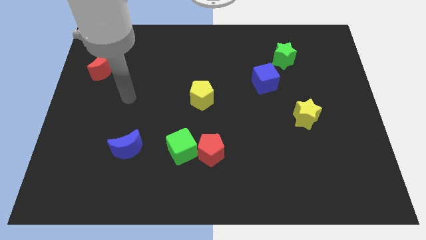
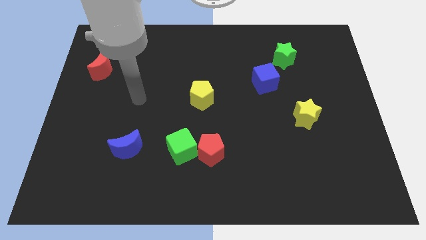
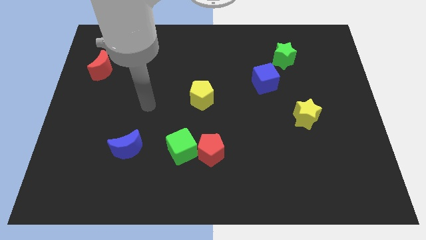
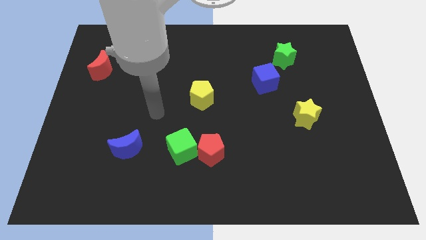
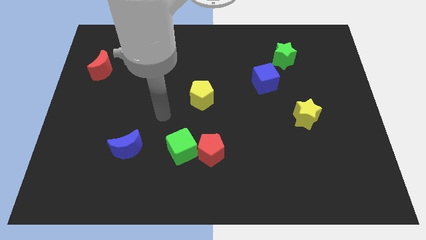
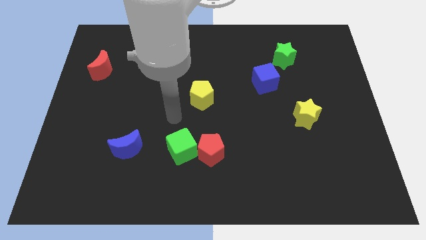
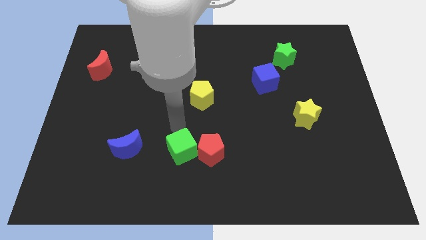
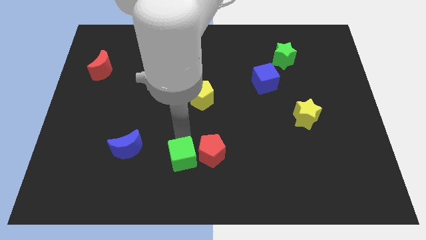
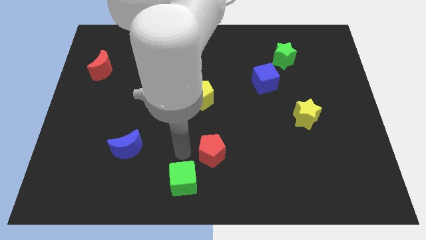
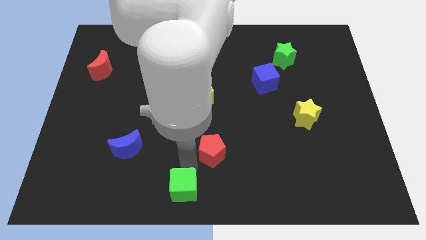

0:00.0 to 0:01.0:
move the red pentagon away from the green cube

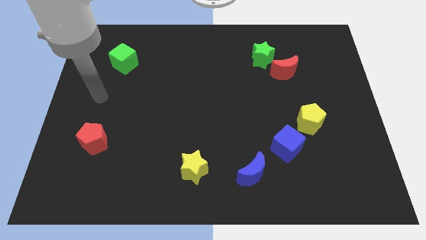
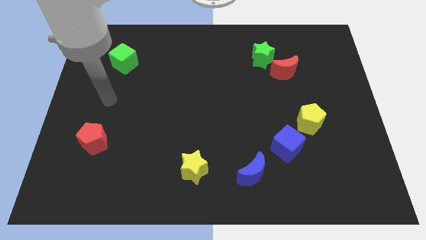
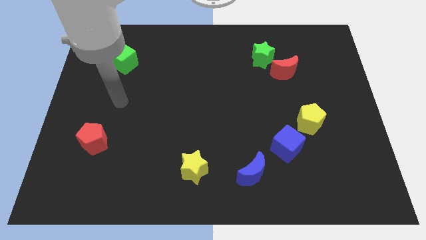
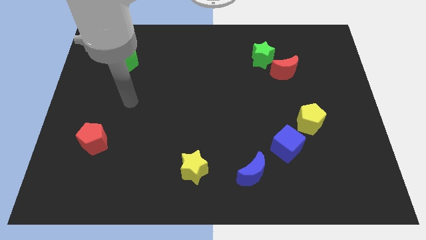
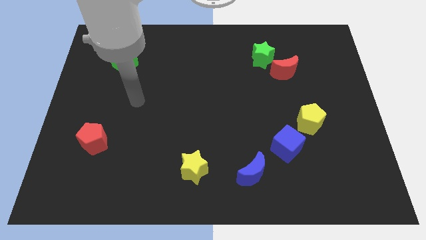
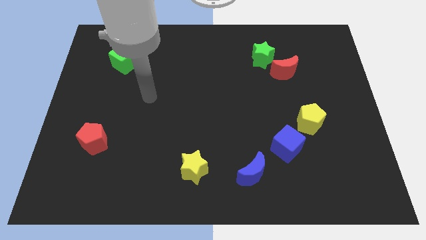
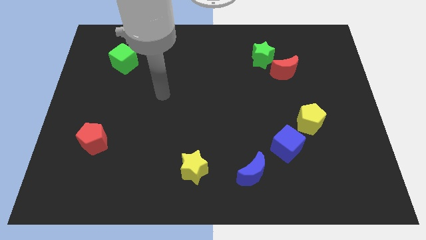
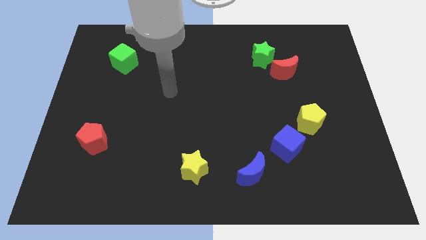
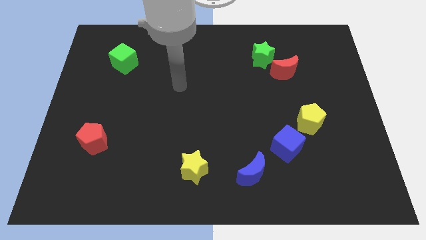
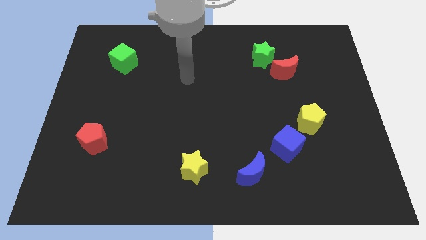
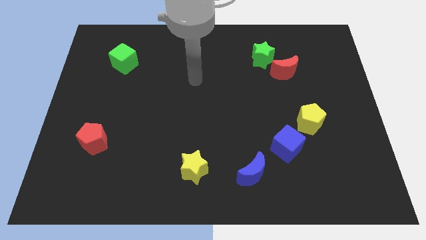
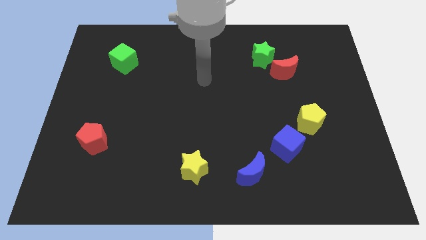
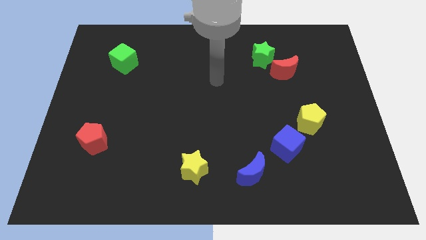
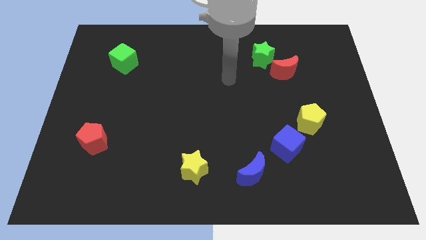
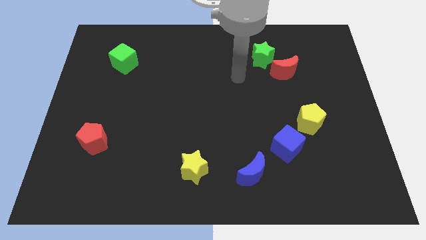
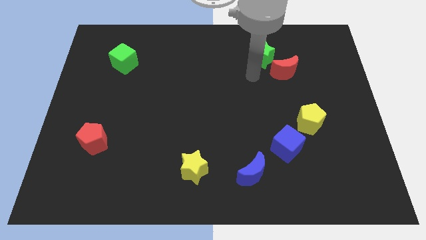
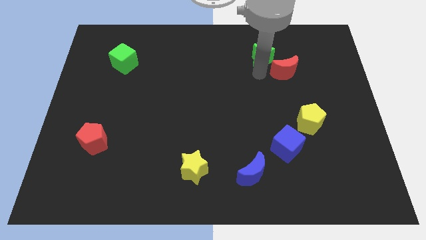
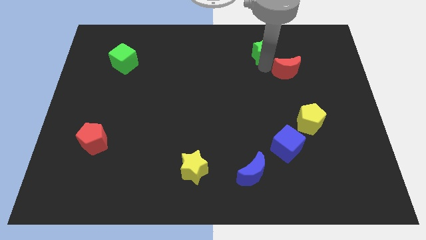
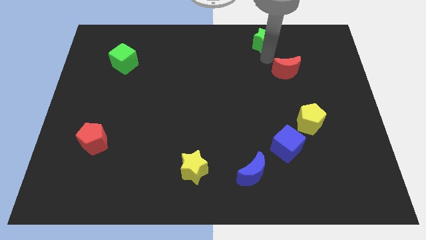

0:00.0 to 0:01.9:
move the red moon away from the green star

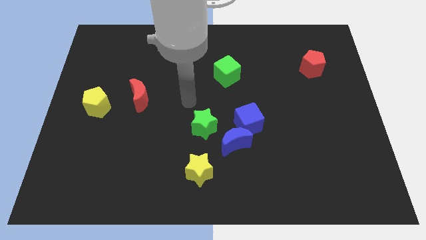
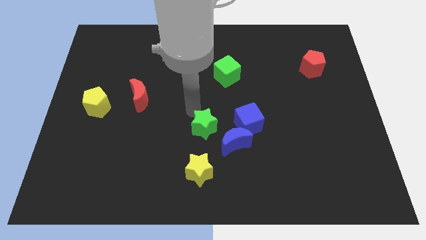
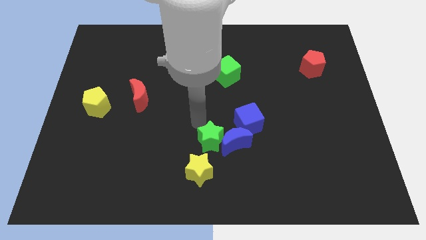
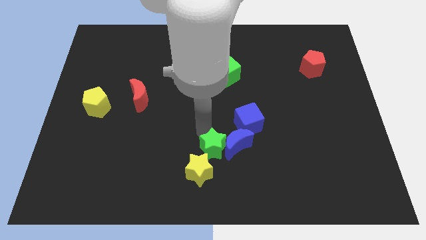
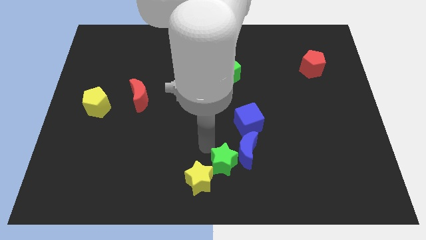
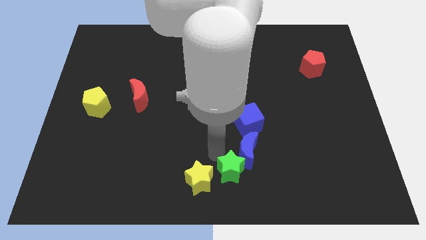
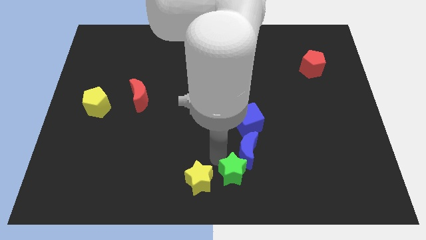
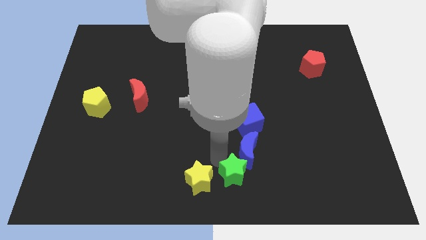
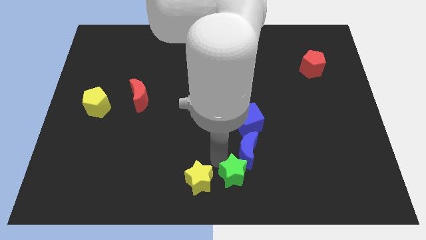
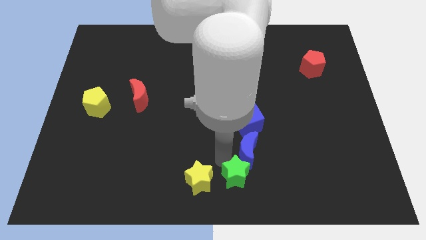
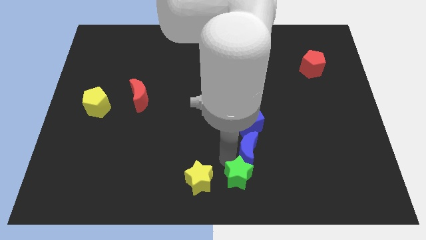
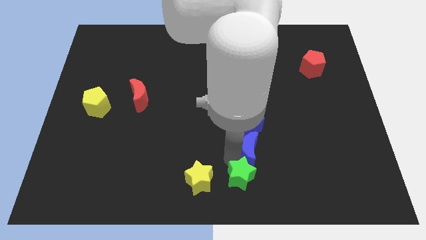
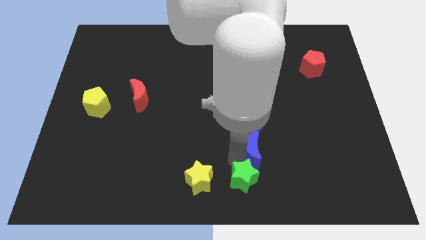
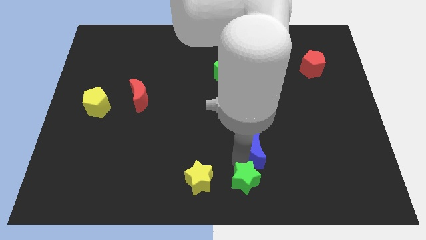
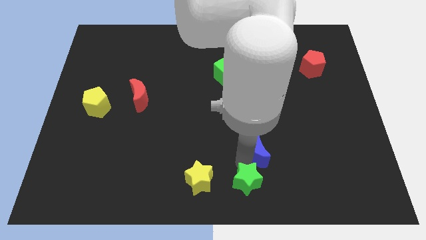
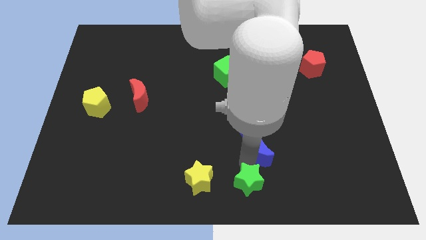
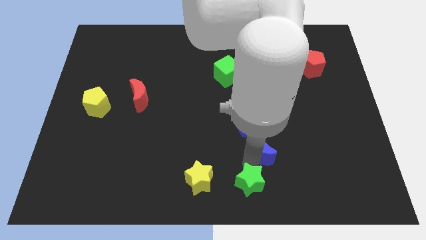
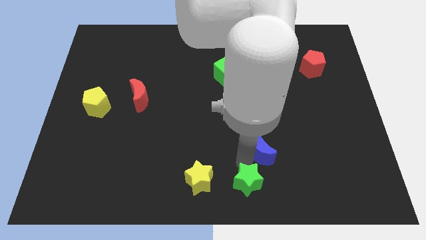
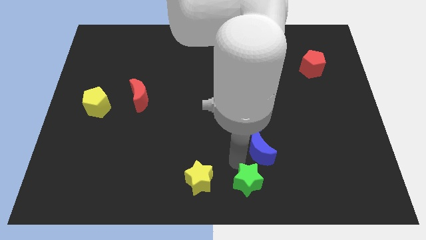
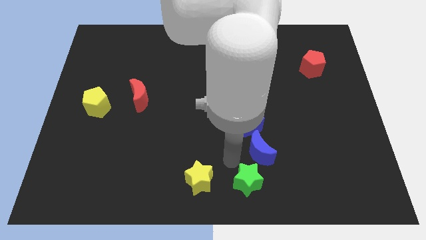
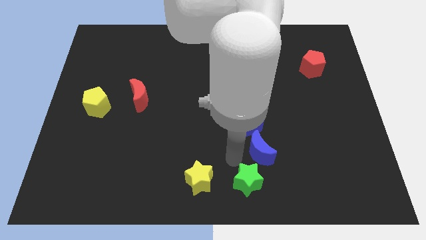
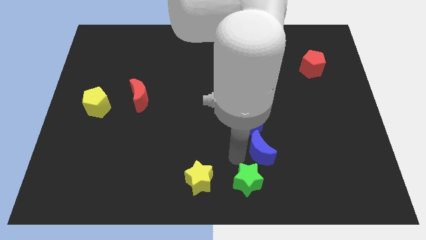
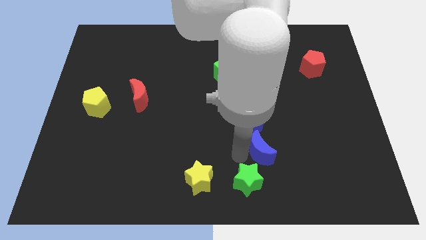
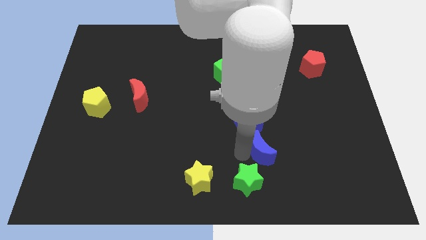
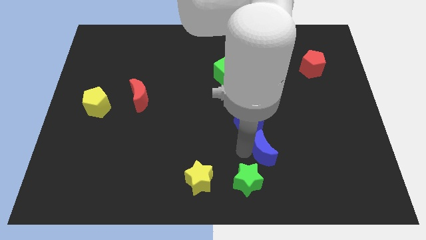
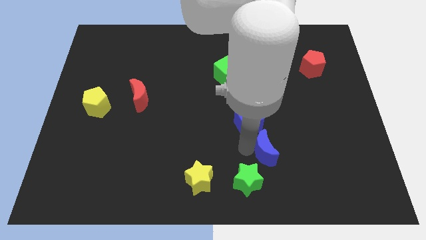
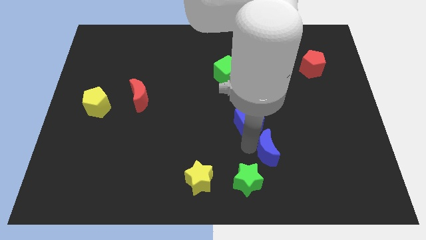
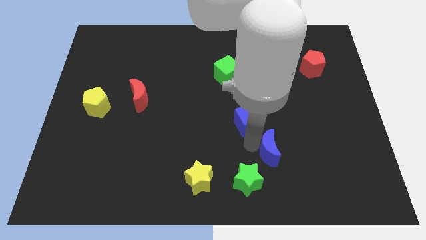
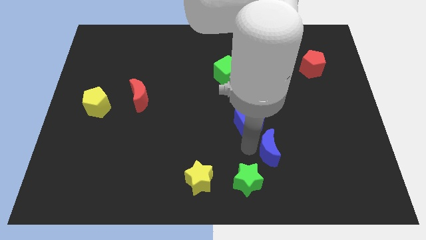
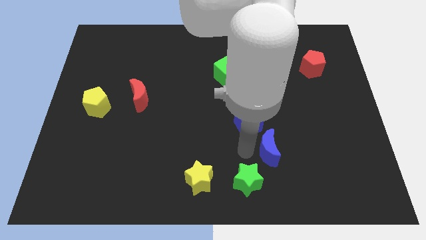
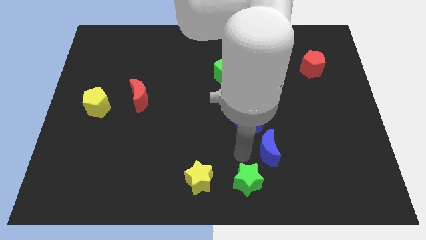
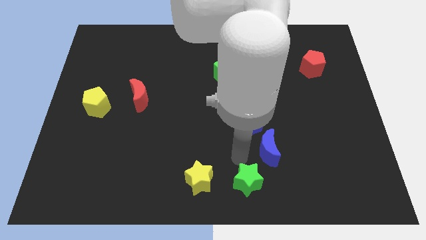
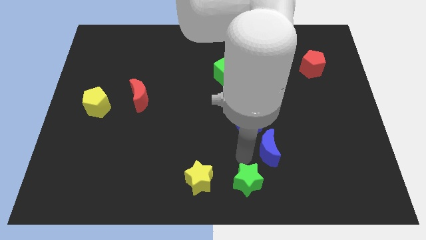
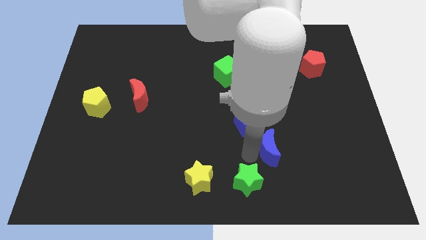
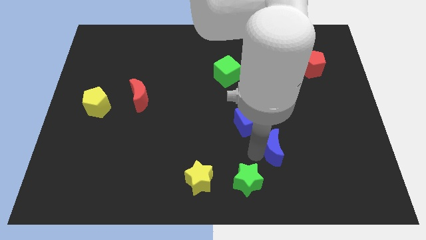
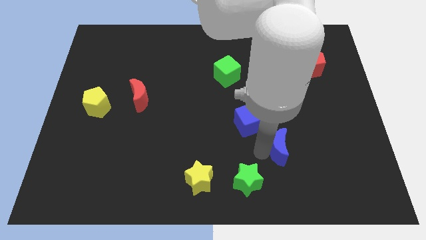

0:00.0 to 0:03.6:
separate the blue moon from the clump

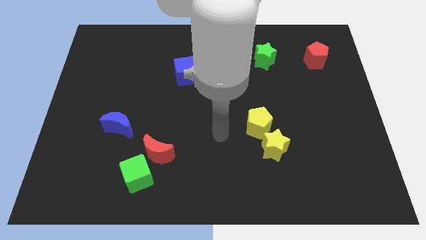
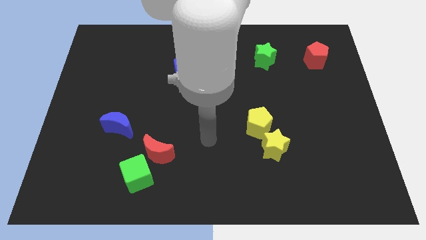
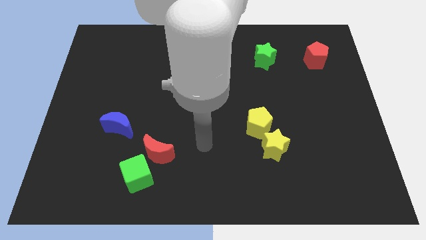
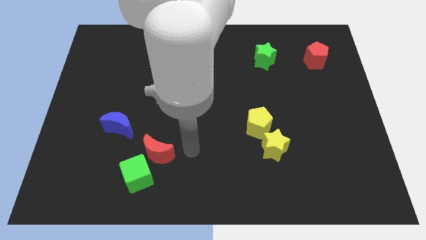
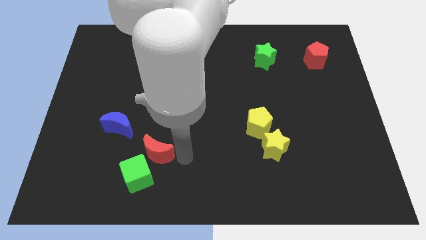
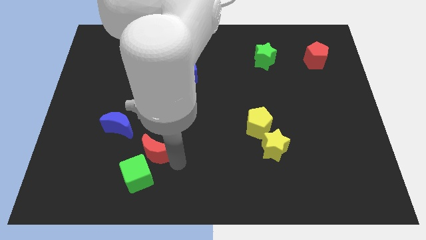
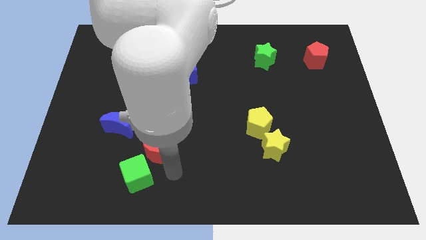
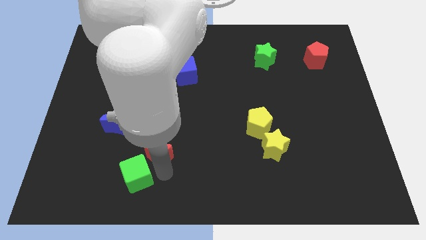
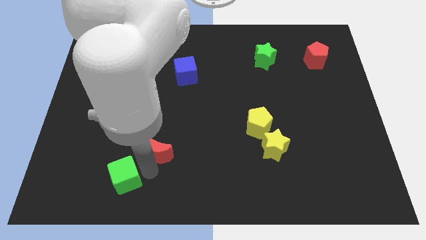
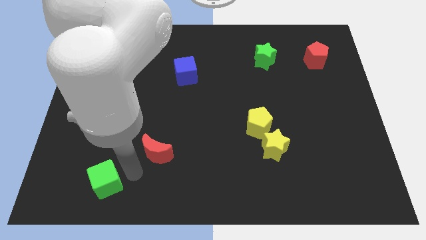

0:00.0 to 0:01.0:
pull the red moon apart from the green cube

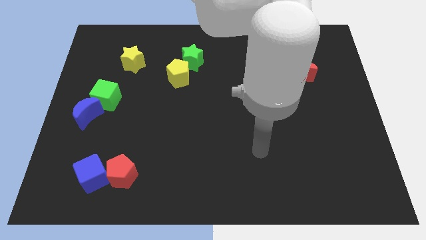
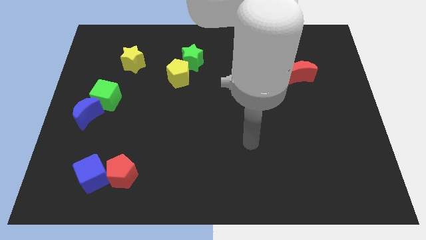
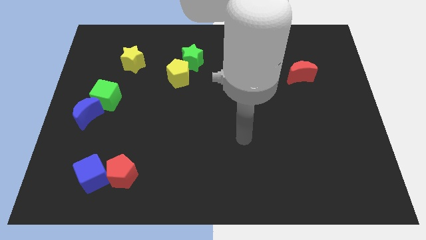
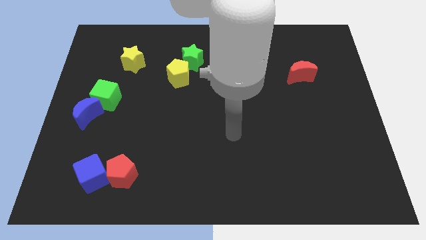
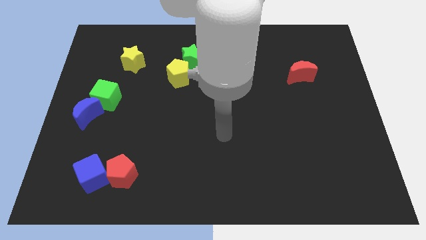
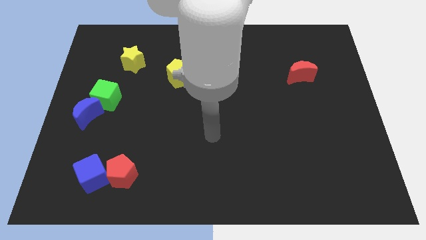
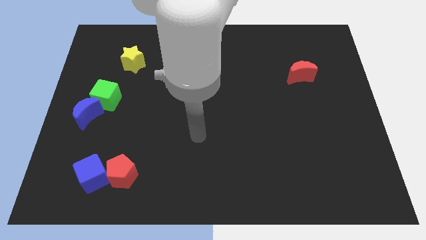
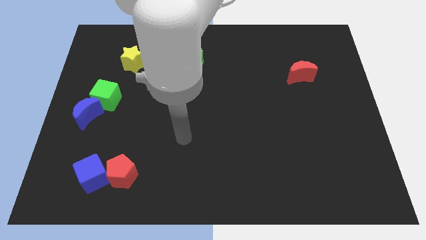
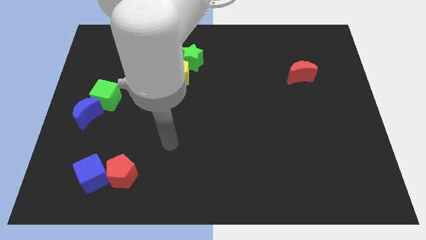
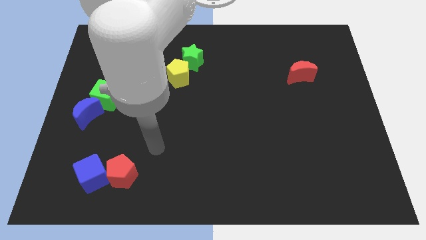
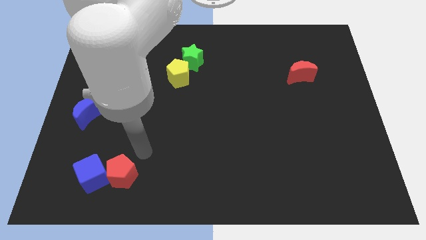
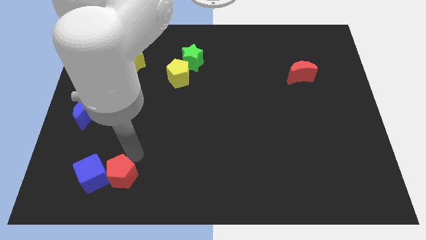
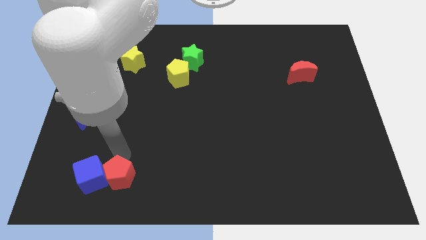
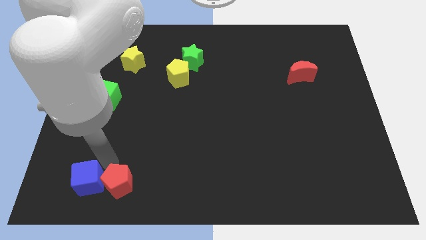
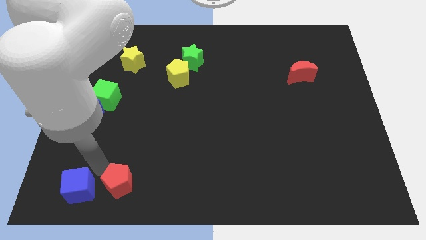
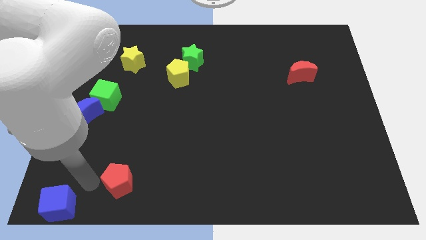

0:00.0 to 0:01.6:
move the red pentagon away from the blue cube

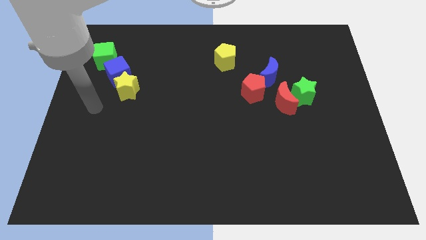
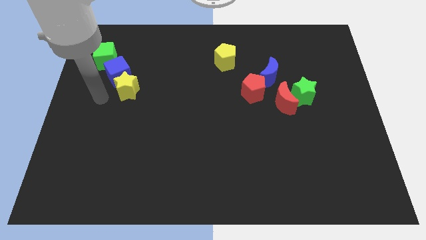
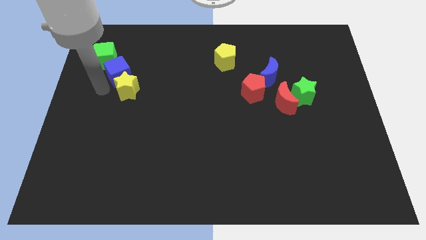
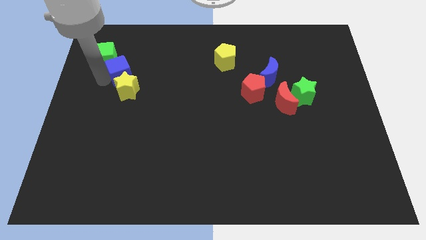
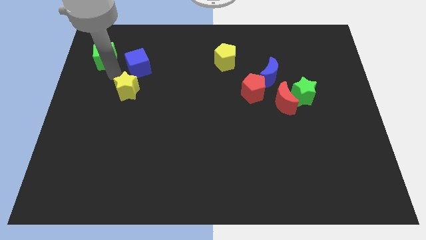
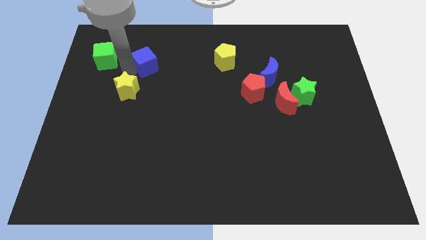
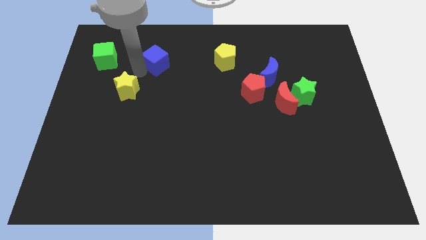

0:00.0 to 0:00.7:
move the yellow star away from the blue cube
